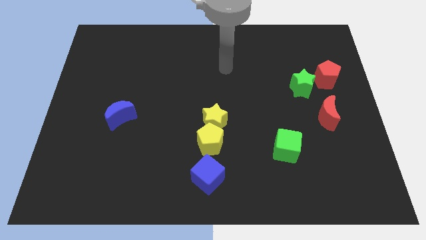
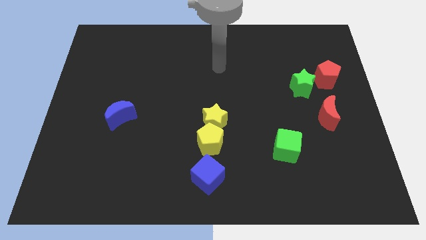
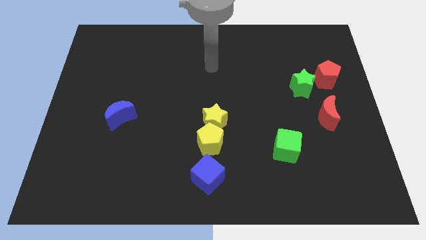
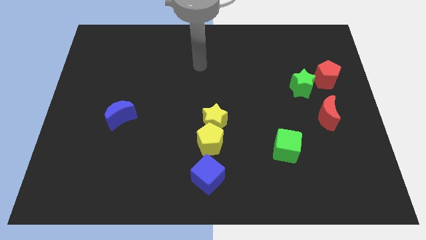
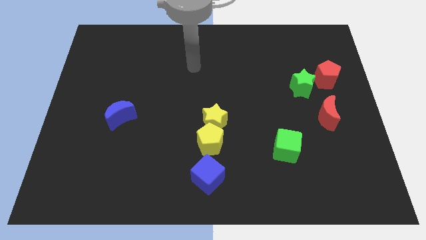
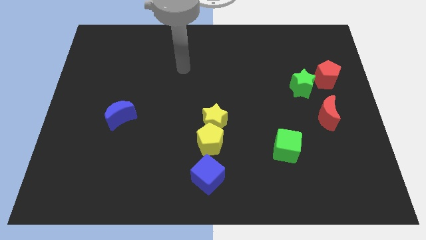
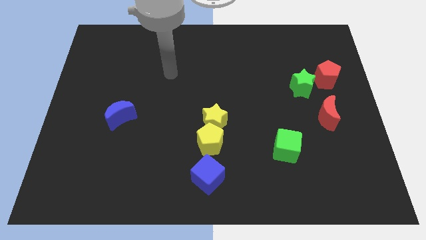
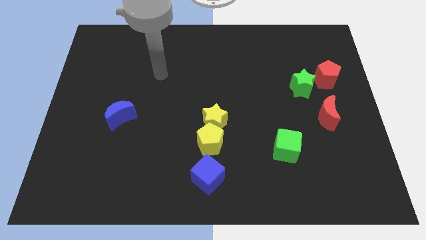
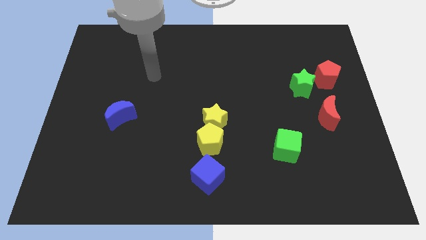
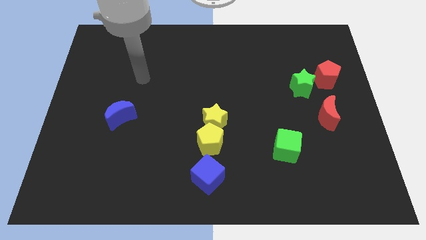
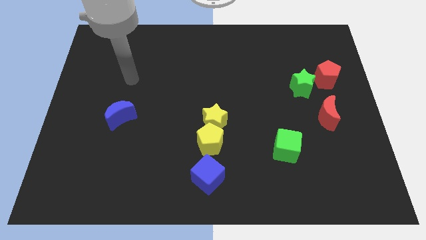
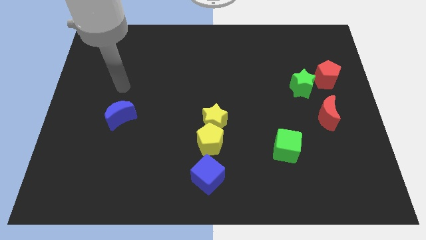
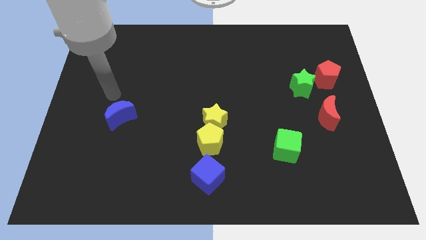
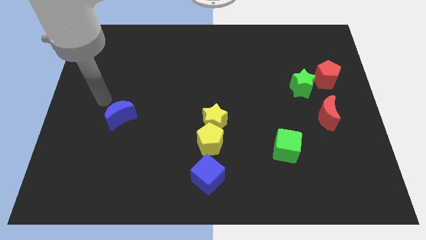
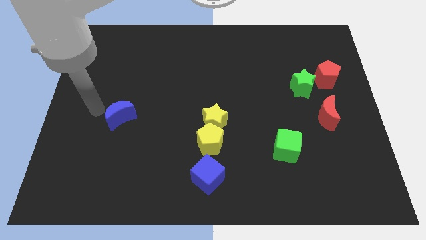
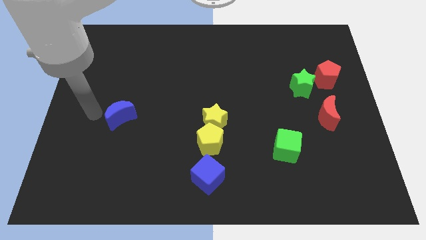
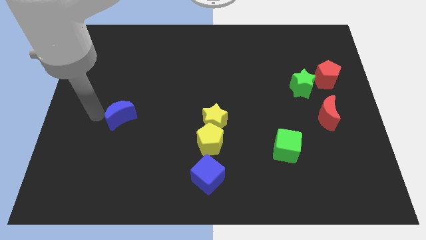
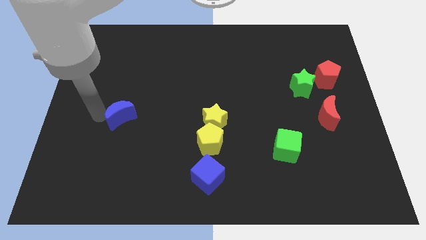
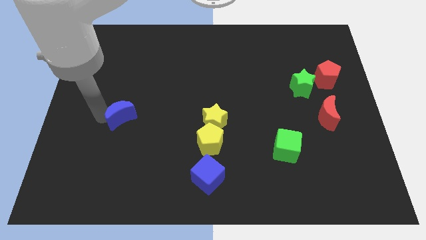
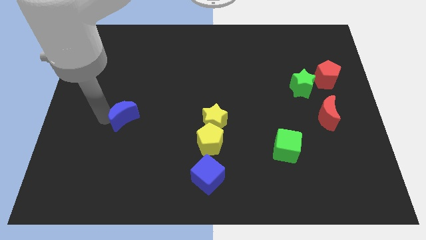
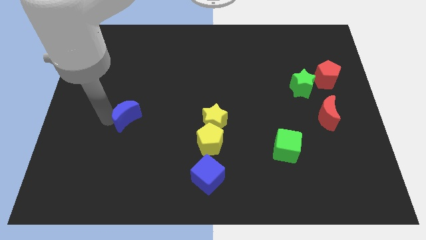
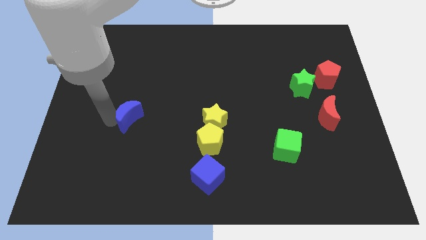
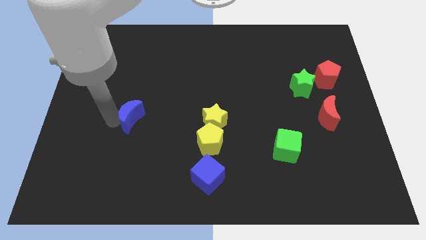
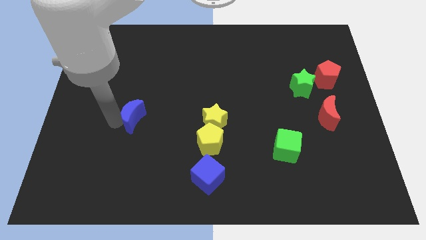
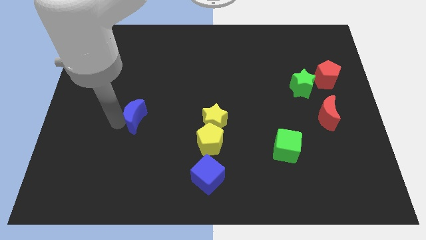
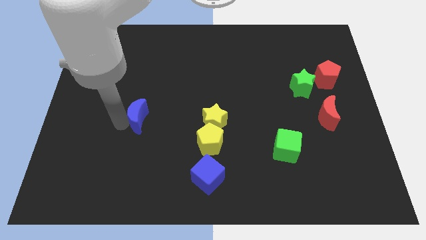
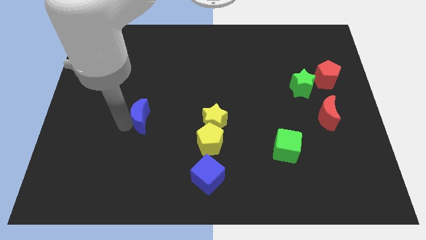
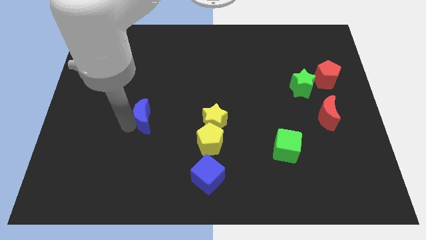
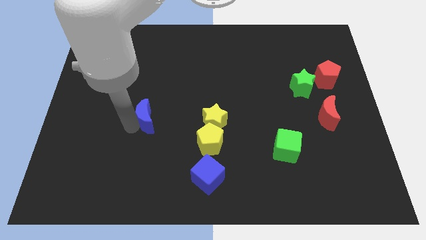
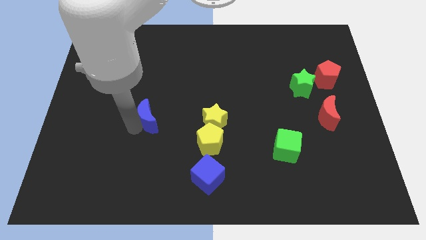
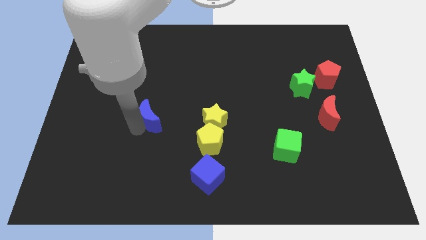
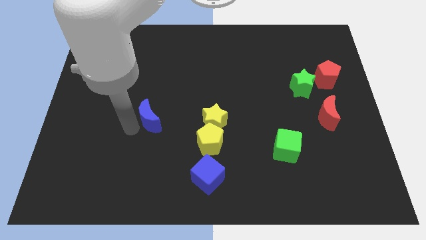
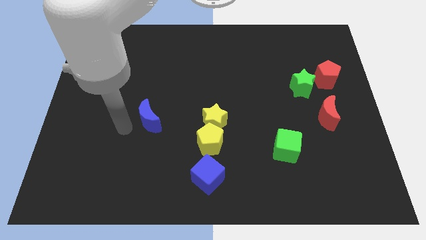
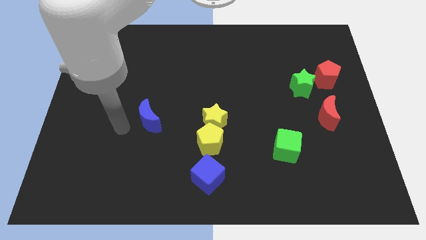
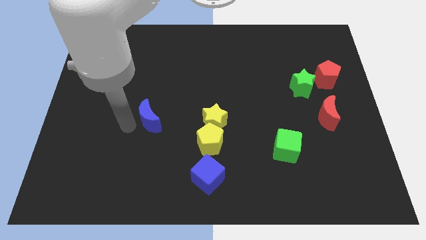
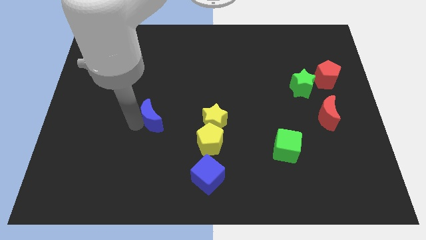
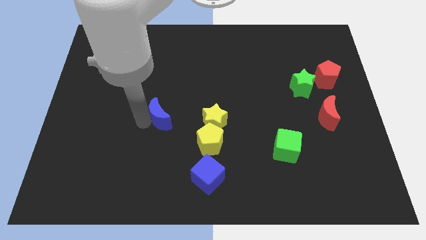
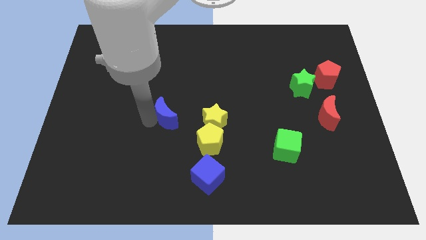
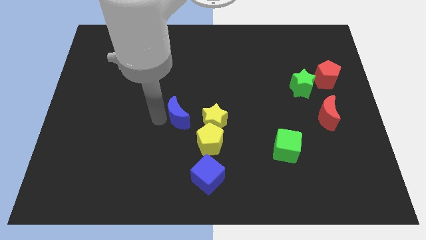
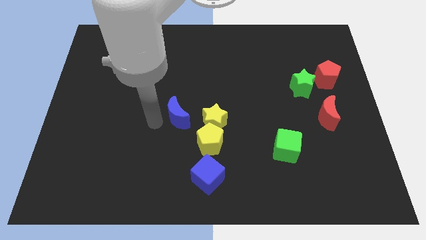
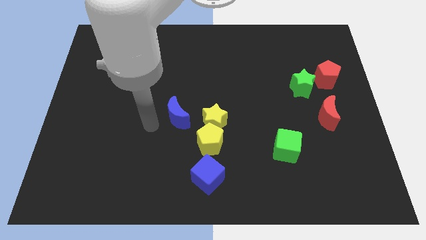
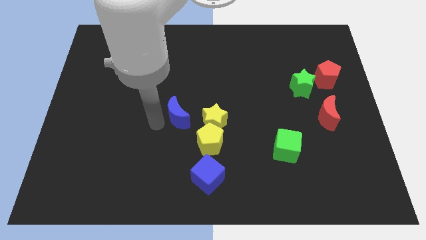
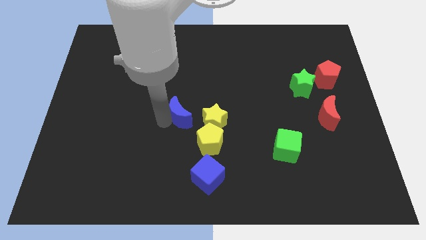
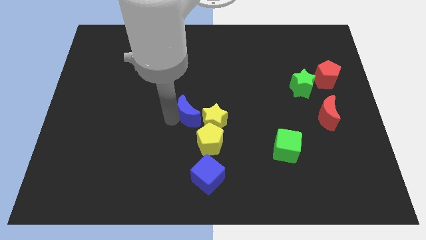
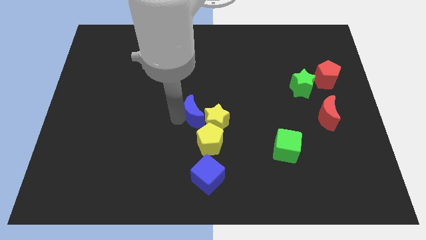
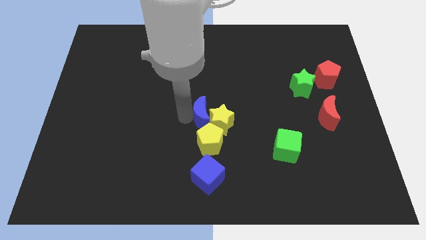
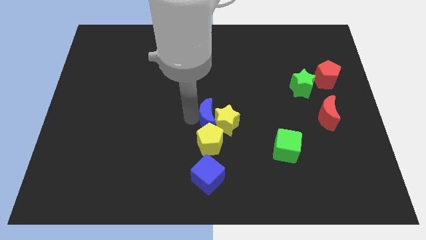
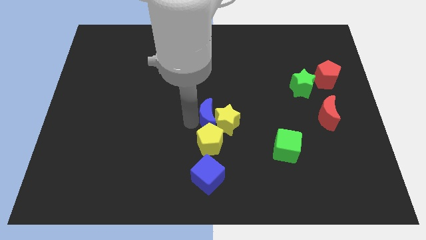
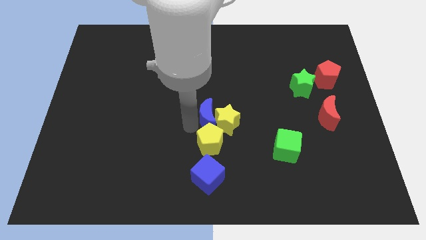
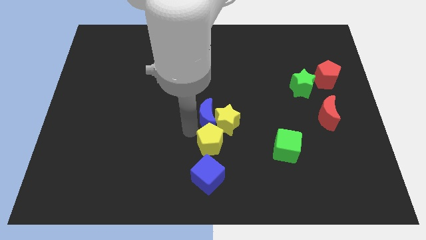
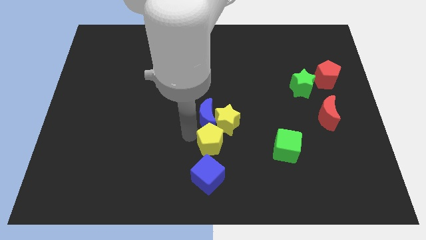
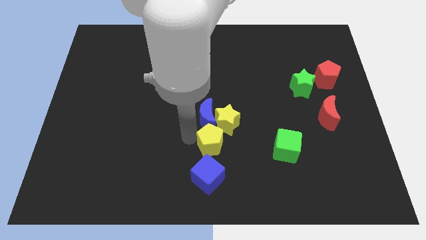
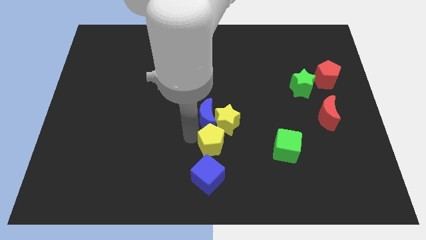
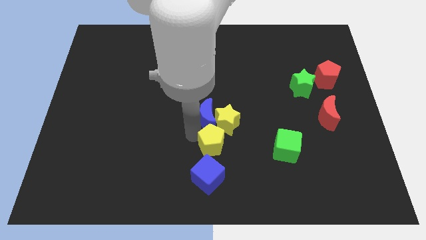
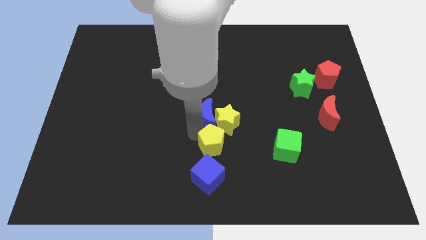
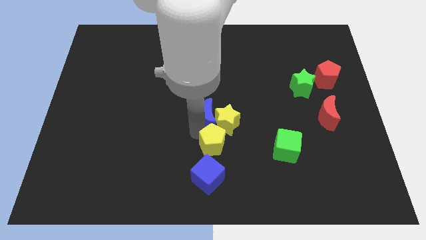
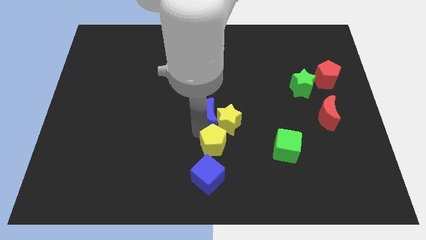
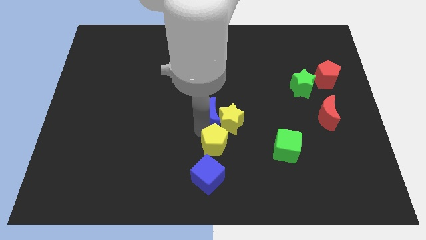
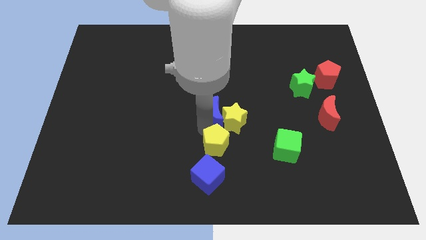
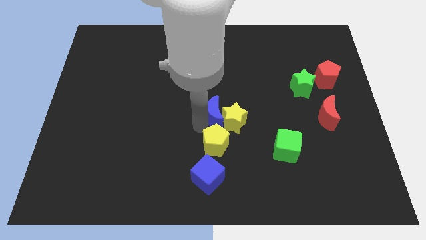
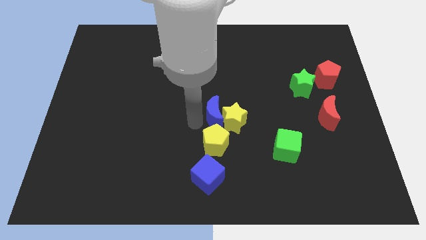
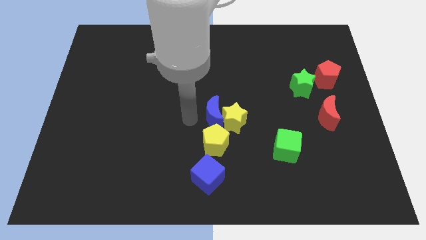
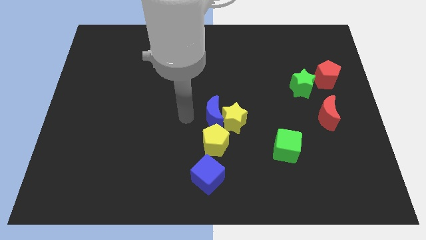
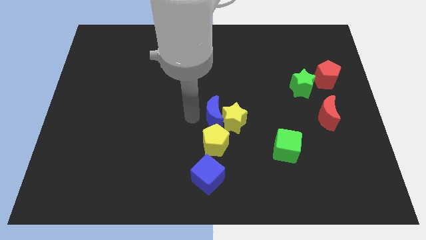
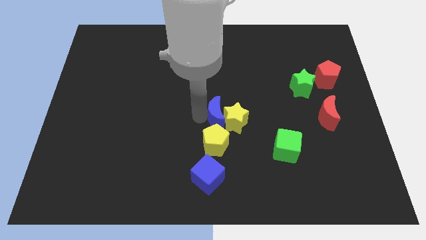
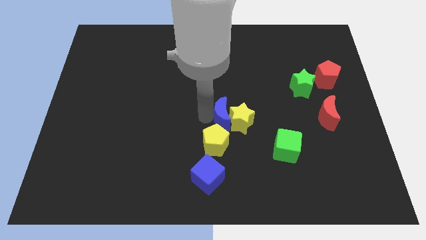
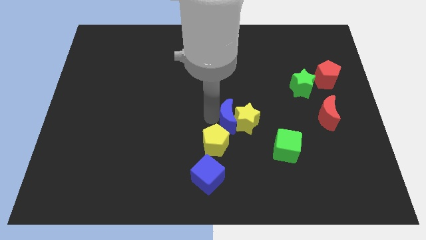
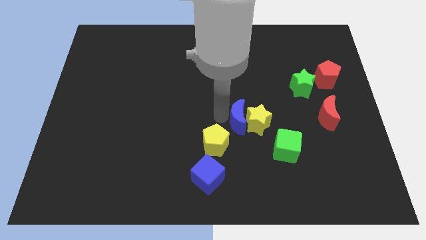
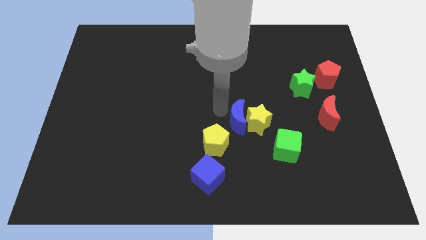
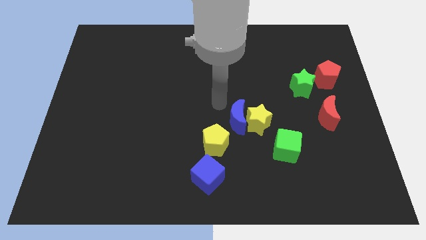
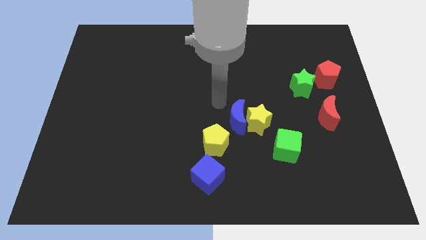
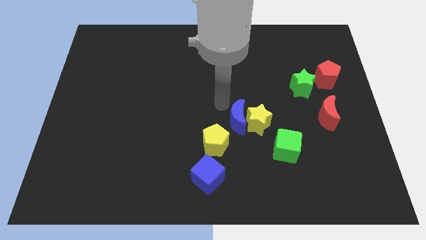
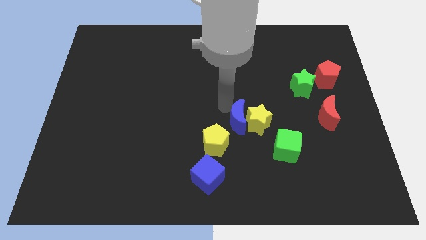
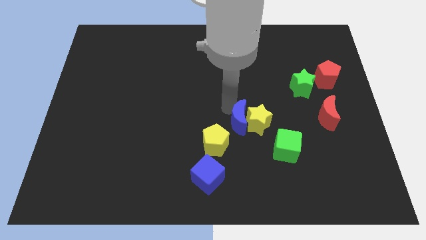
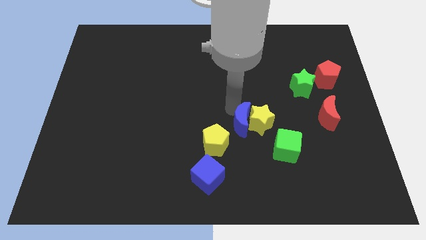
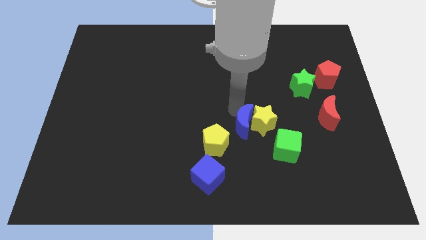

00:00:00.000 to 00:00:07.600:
move the blue moon just right of the yellow pentagon

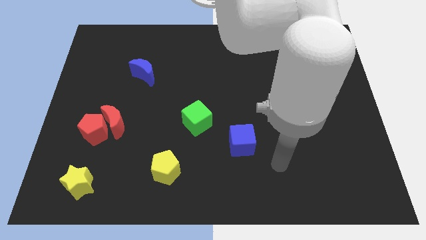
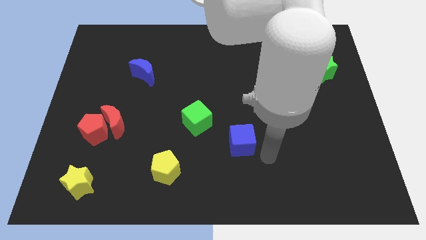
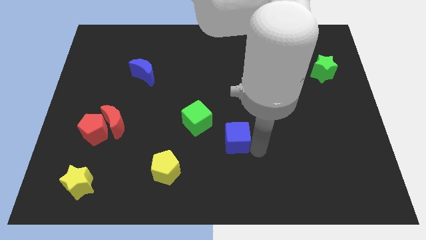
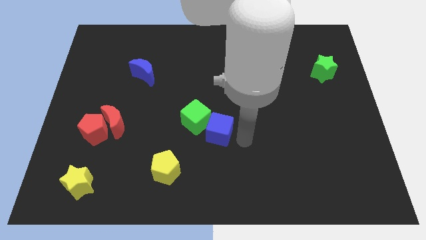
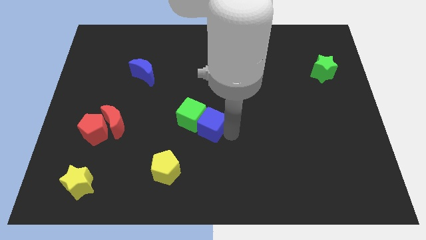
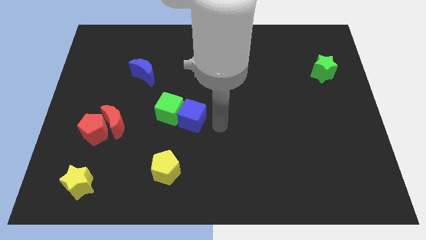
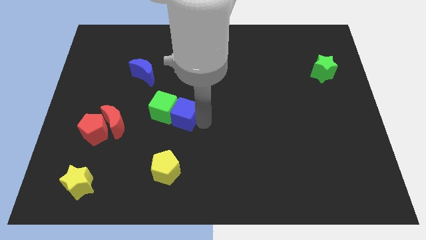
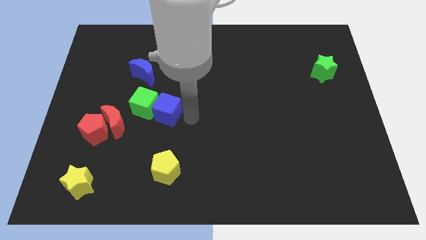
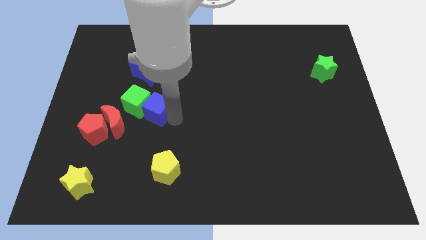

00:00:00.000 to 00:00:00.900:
slide the green cube above the red moon
